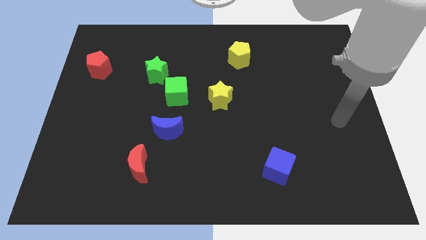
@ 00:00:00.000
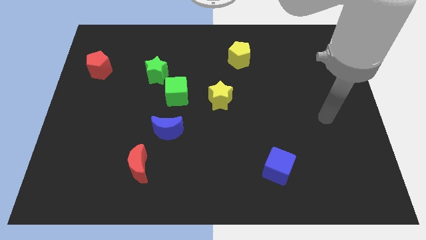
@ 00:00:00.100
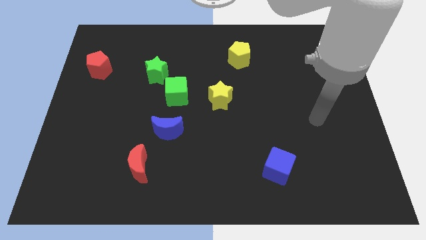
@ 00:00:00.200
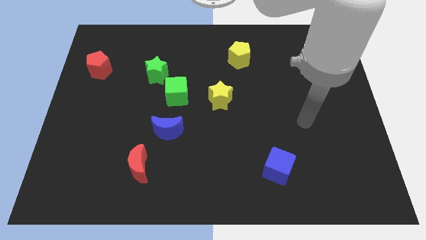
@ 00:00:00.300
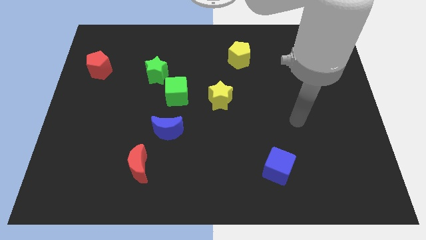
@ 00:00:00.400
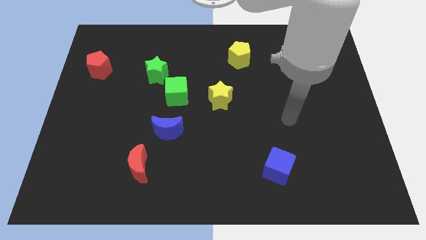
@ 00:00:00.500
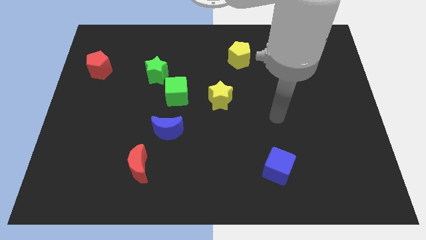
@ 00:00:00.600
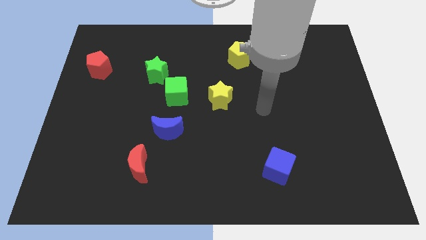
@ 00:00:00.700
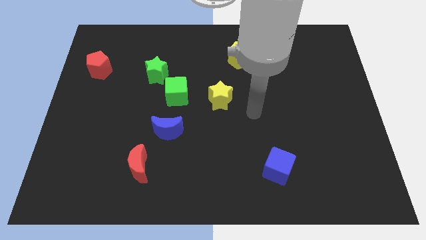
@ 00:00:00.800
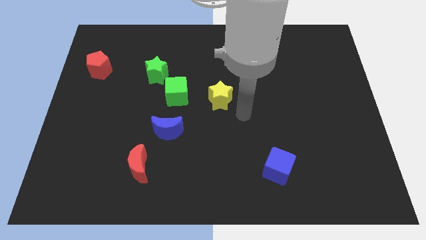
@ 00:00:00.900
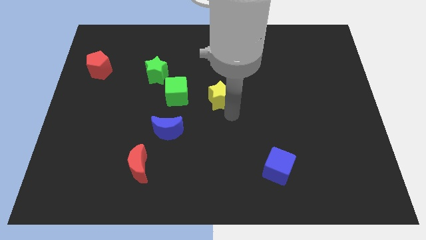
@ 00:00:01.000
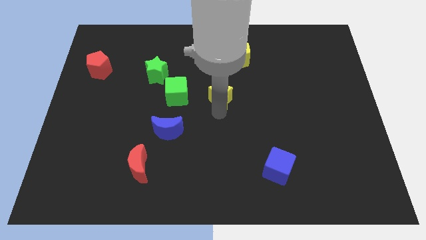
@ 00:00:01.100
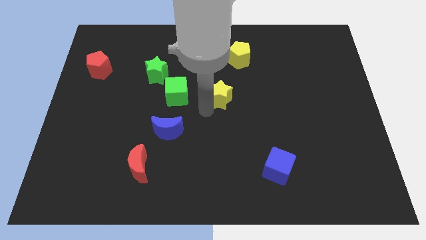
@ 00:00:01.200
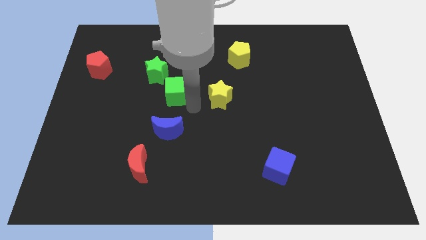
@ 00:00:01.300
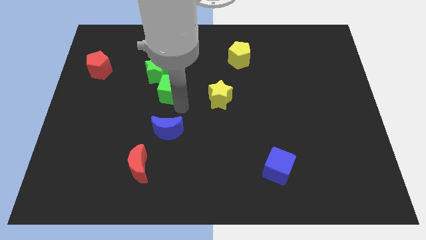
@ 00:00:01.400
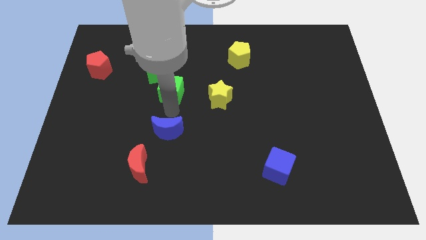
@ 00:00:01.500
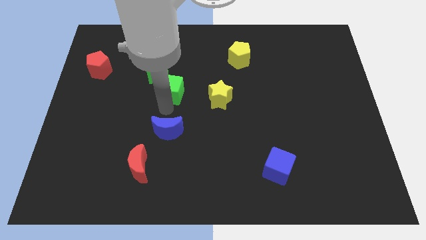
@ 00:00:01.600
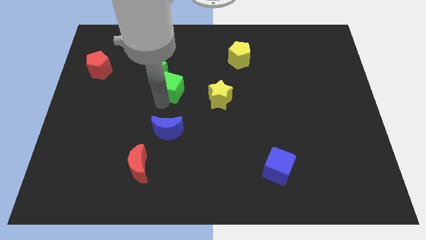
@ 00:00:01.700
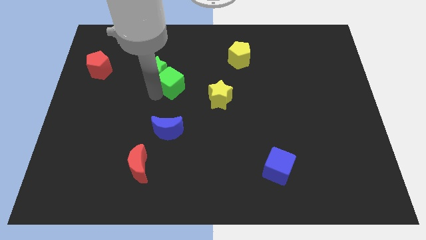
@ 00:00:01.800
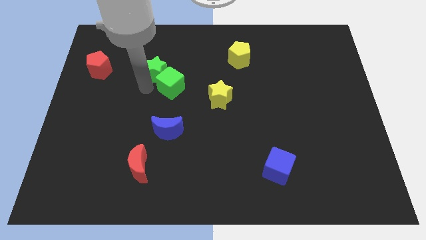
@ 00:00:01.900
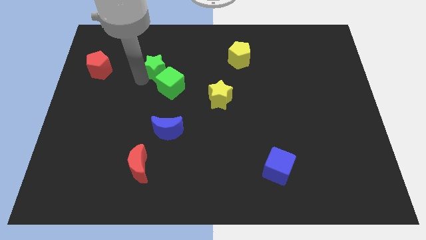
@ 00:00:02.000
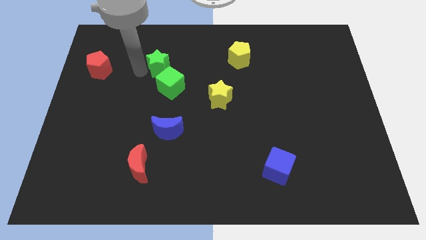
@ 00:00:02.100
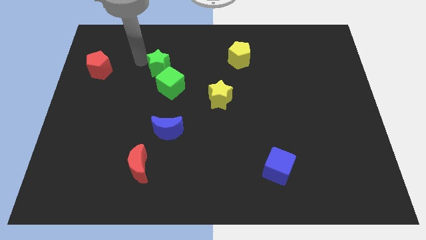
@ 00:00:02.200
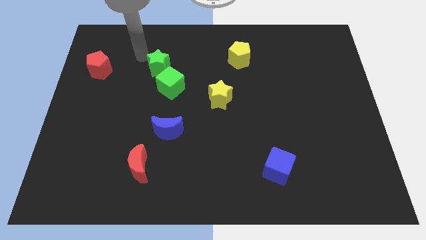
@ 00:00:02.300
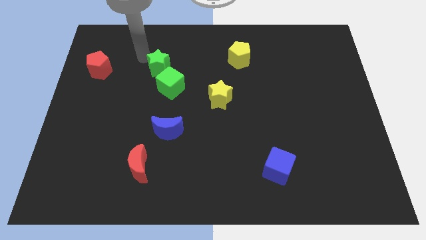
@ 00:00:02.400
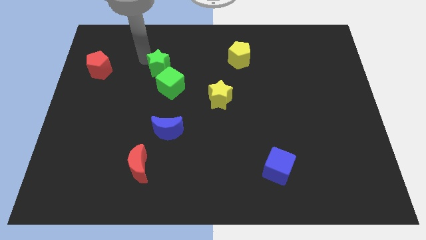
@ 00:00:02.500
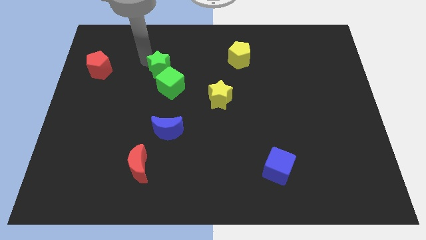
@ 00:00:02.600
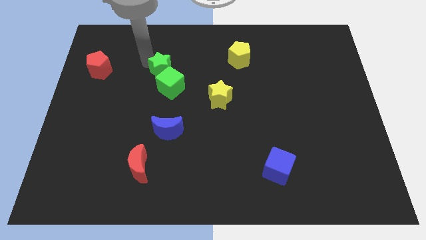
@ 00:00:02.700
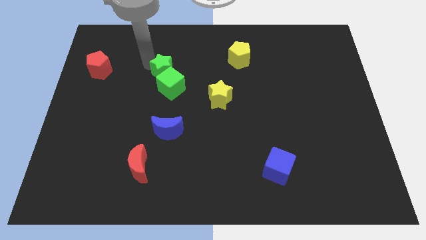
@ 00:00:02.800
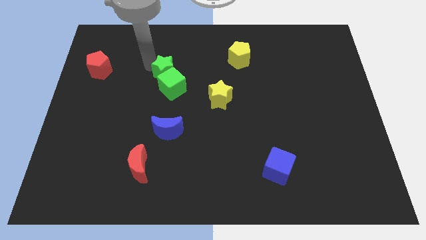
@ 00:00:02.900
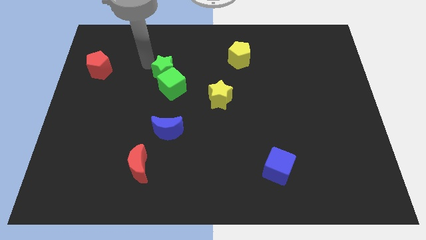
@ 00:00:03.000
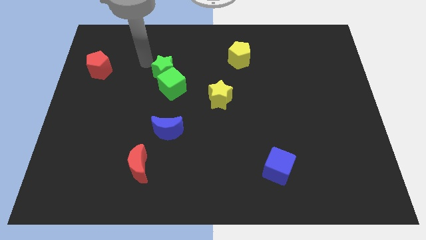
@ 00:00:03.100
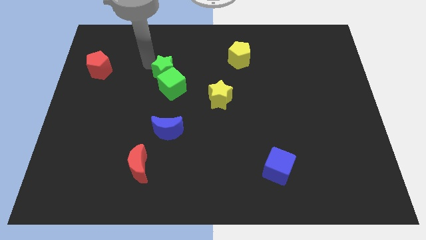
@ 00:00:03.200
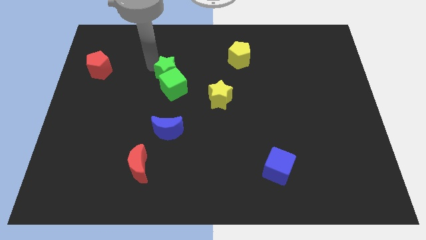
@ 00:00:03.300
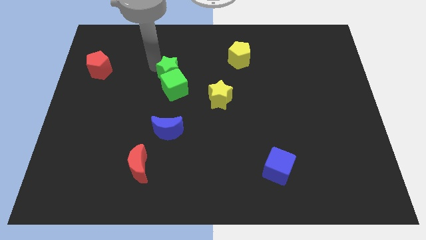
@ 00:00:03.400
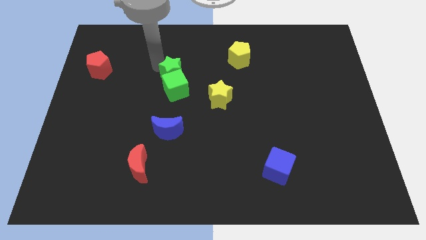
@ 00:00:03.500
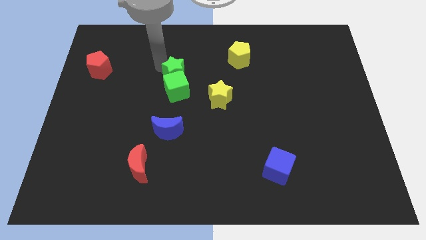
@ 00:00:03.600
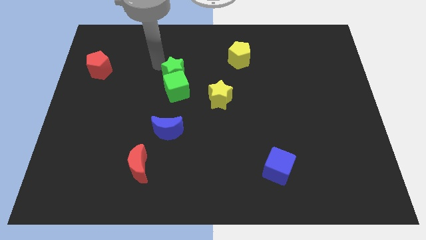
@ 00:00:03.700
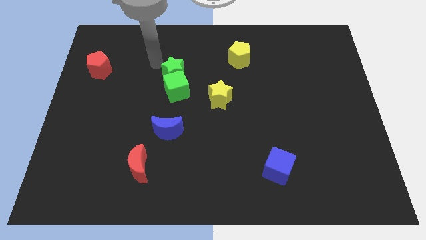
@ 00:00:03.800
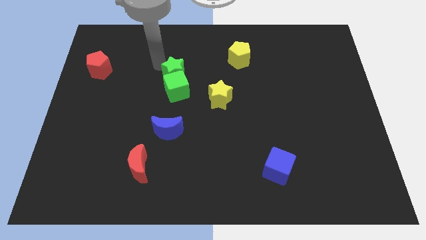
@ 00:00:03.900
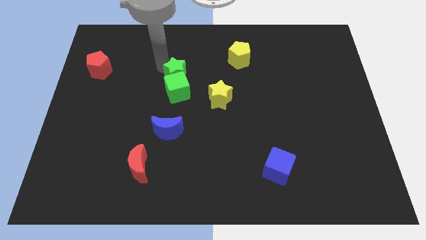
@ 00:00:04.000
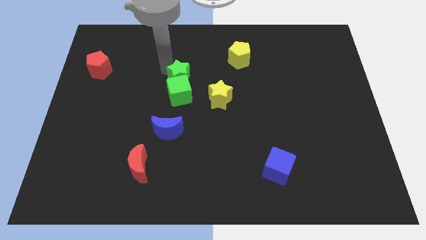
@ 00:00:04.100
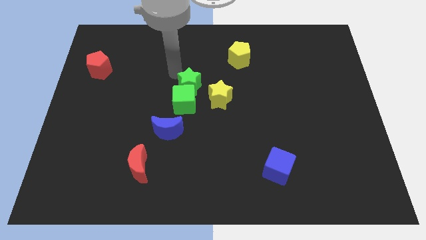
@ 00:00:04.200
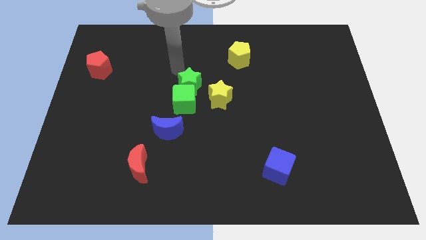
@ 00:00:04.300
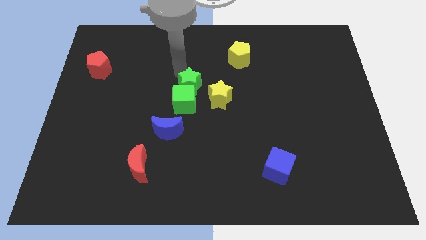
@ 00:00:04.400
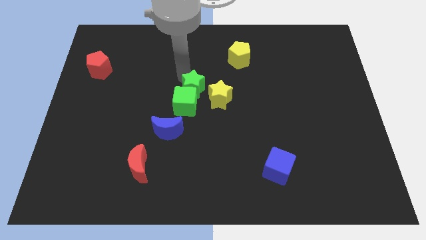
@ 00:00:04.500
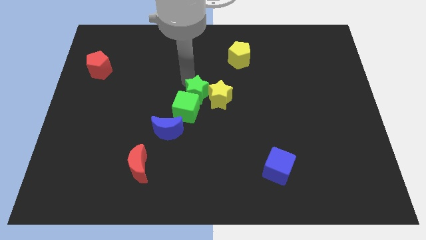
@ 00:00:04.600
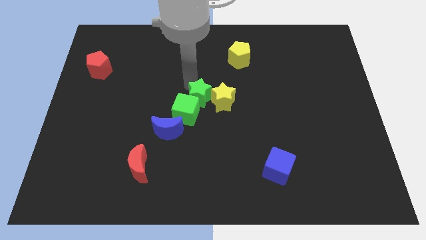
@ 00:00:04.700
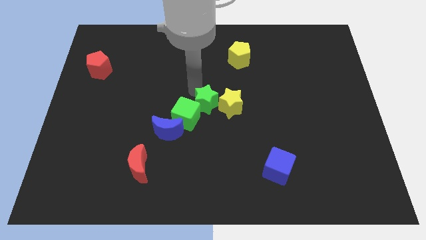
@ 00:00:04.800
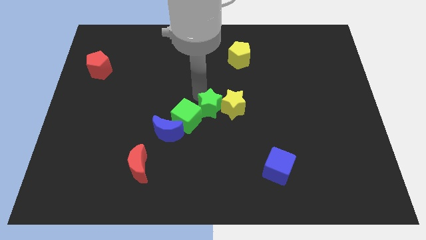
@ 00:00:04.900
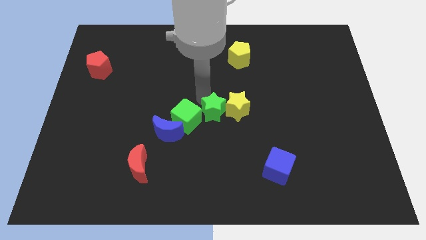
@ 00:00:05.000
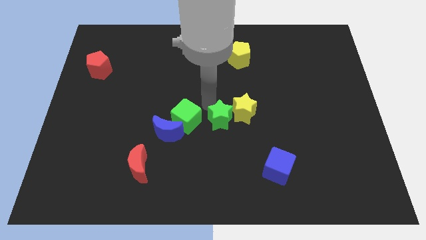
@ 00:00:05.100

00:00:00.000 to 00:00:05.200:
move the green star downwards and right

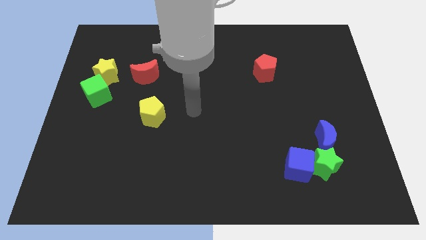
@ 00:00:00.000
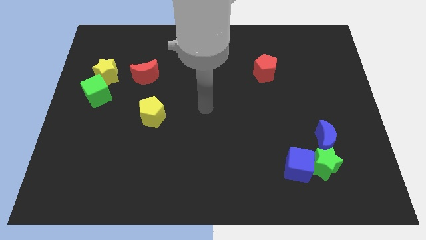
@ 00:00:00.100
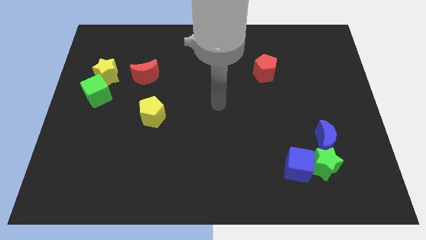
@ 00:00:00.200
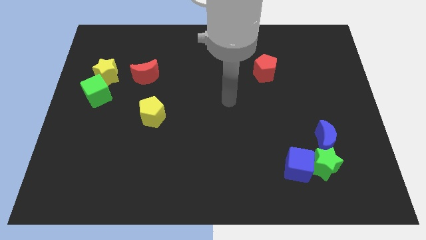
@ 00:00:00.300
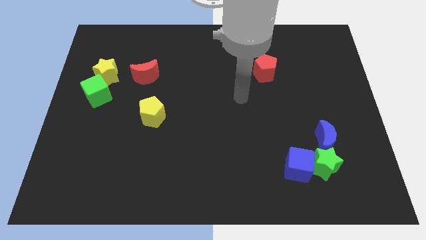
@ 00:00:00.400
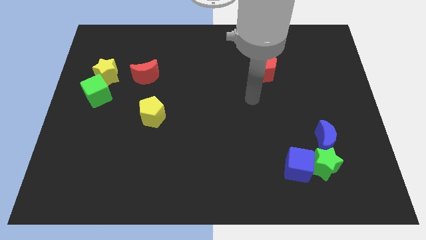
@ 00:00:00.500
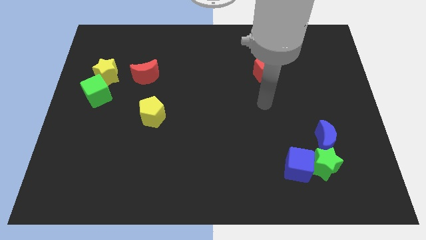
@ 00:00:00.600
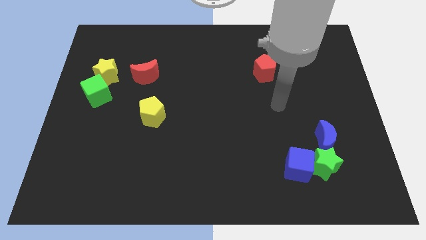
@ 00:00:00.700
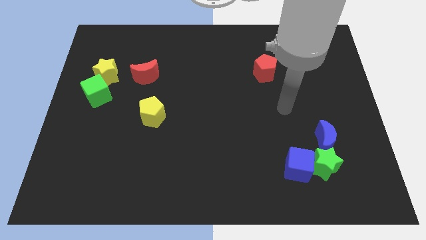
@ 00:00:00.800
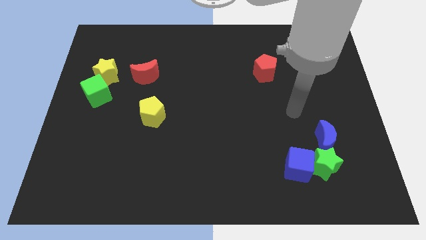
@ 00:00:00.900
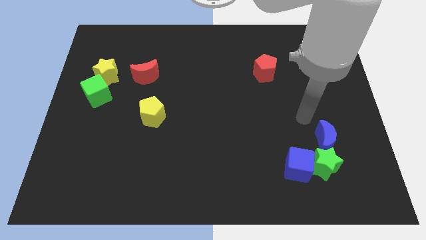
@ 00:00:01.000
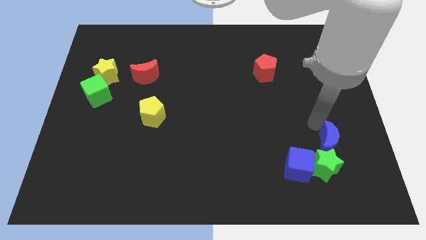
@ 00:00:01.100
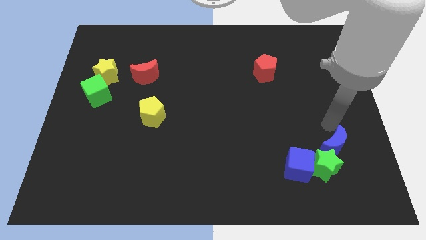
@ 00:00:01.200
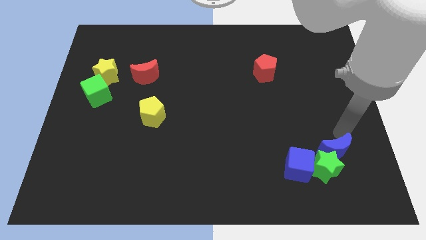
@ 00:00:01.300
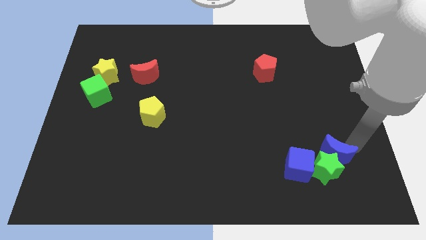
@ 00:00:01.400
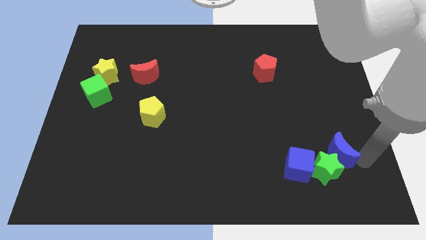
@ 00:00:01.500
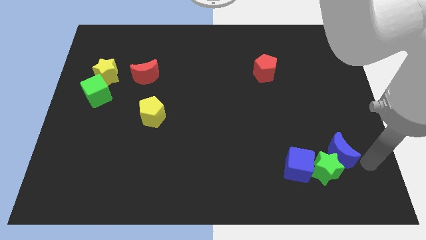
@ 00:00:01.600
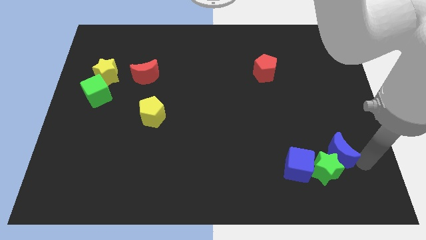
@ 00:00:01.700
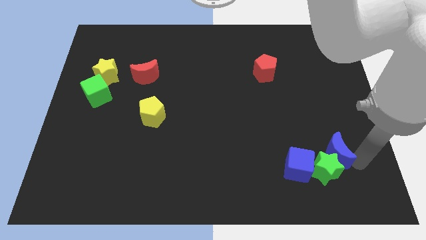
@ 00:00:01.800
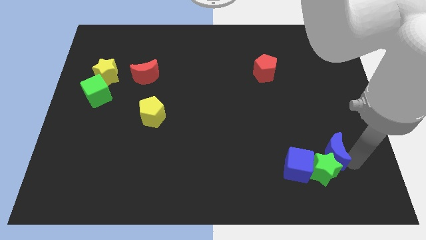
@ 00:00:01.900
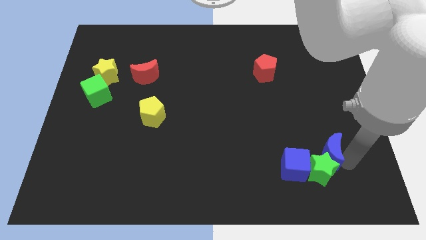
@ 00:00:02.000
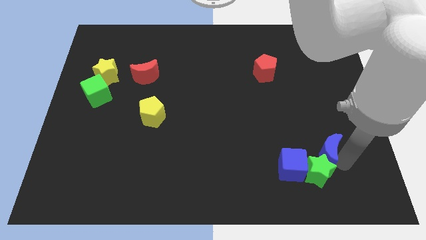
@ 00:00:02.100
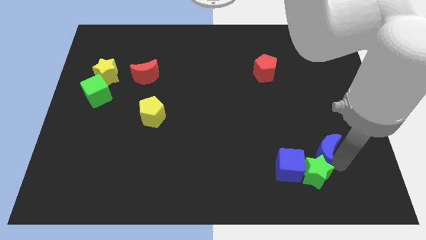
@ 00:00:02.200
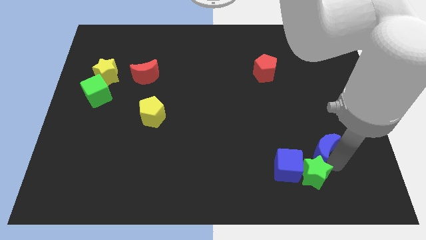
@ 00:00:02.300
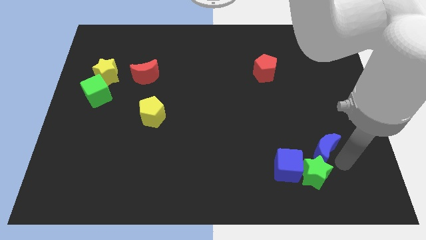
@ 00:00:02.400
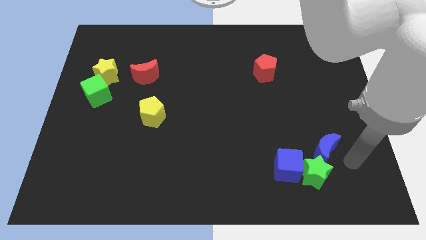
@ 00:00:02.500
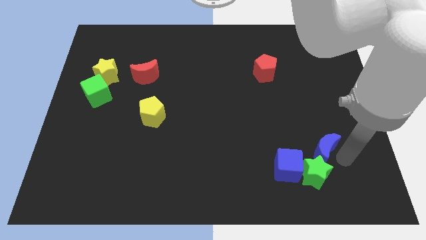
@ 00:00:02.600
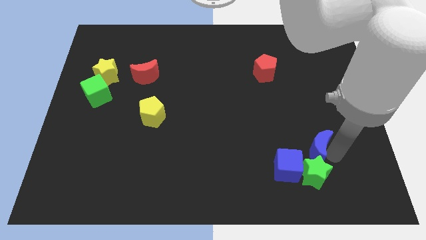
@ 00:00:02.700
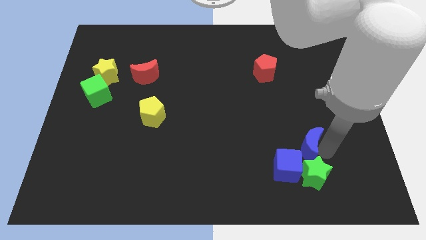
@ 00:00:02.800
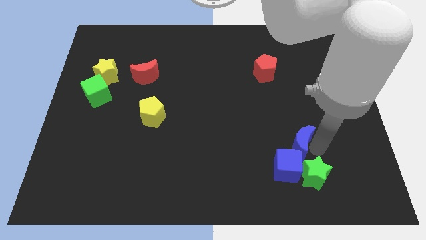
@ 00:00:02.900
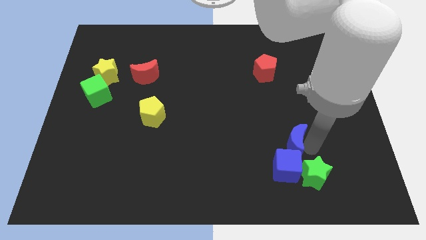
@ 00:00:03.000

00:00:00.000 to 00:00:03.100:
slide the blue moon slightly to the left
